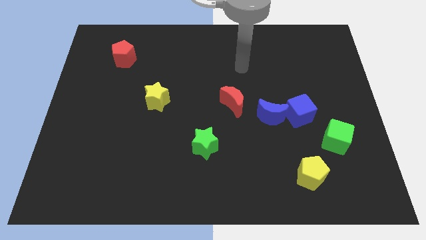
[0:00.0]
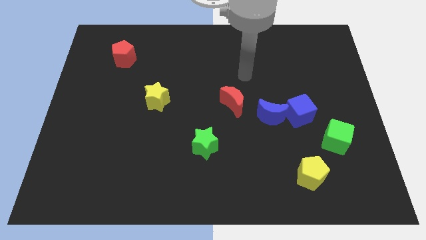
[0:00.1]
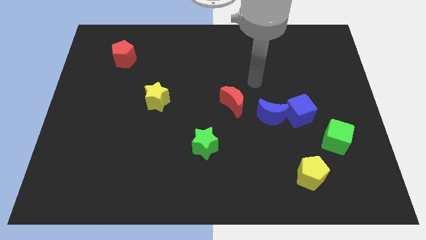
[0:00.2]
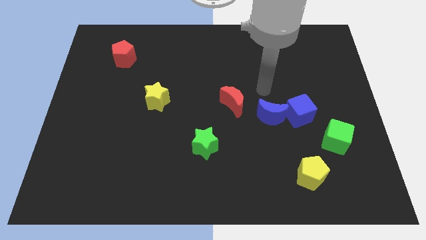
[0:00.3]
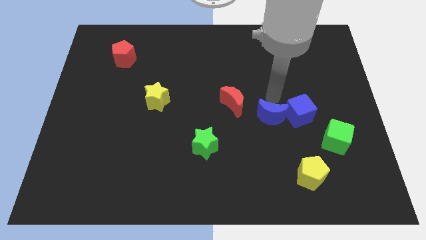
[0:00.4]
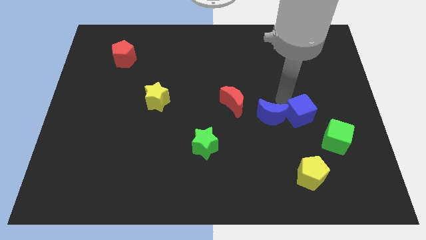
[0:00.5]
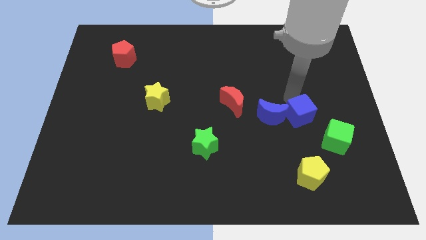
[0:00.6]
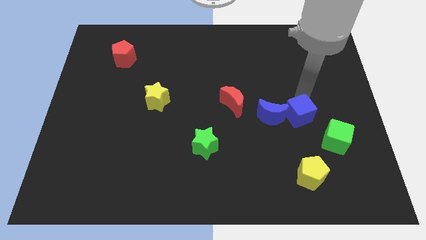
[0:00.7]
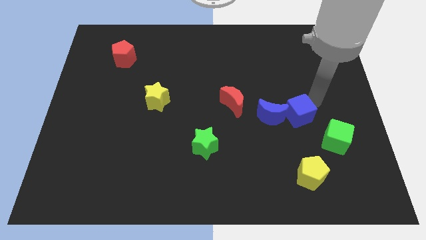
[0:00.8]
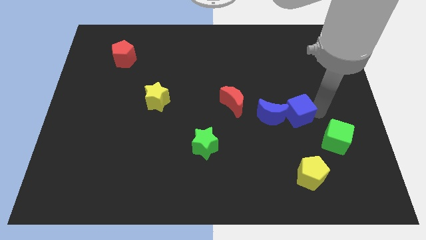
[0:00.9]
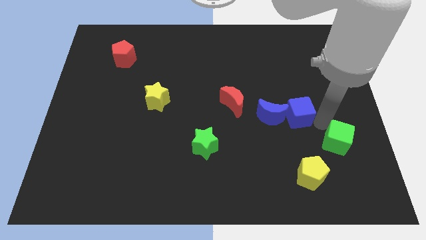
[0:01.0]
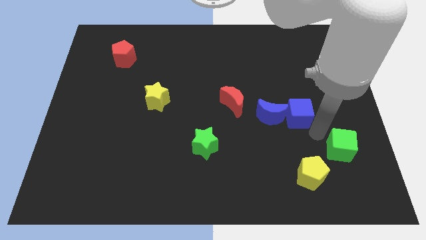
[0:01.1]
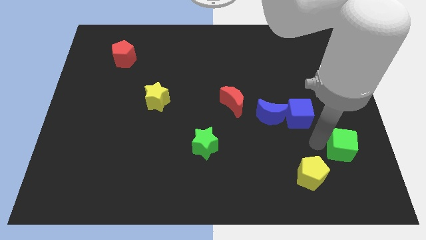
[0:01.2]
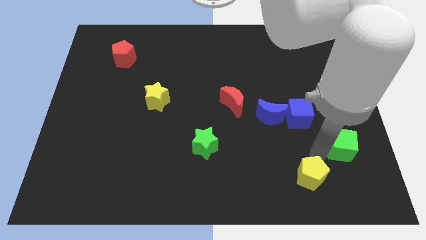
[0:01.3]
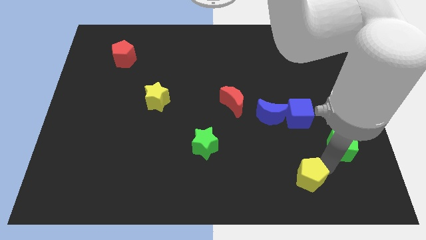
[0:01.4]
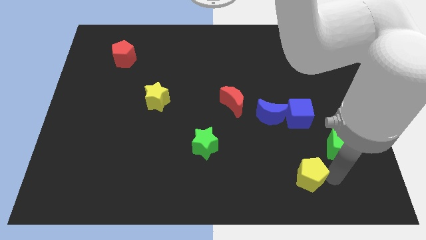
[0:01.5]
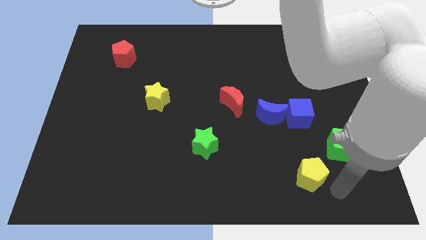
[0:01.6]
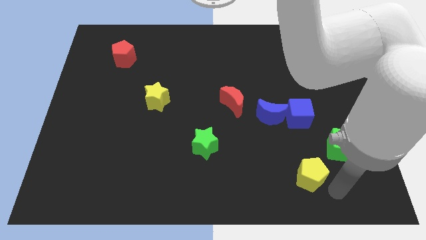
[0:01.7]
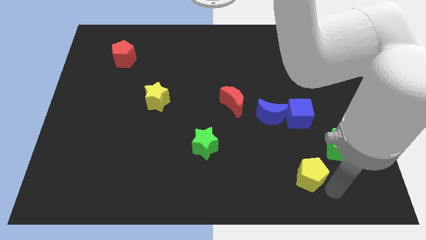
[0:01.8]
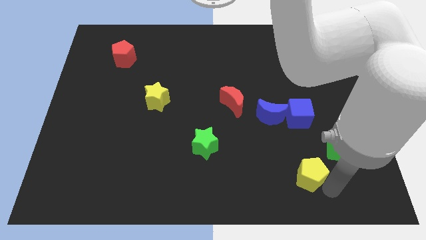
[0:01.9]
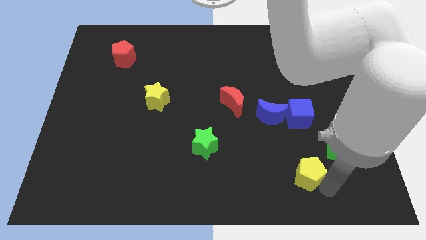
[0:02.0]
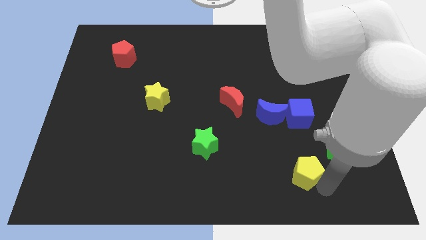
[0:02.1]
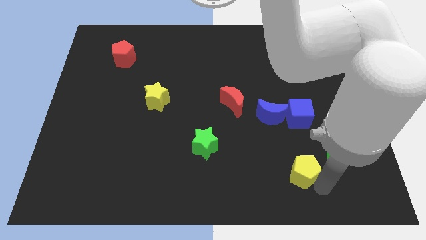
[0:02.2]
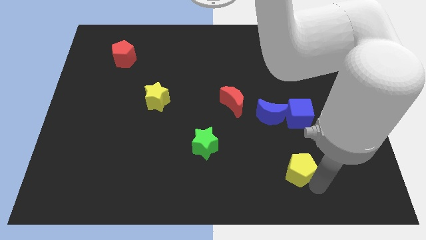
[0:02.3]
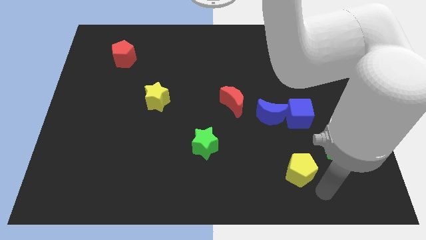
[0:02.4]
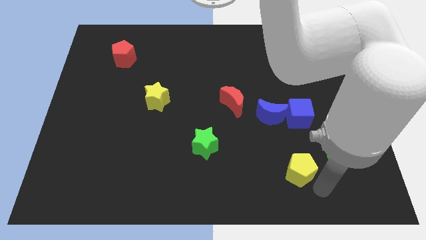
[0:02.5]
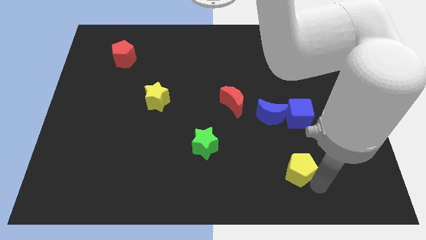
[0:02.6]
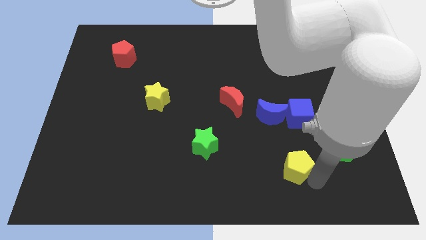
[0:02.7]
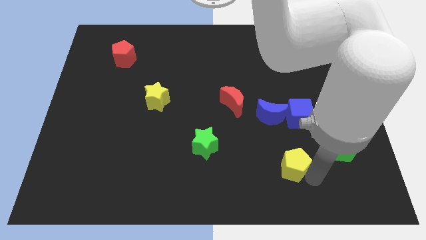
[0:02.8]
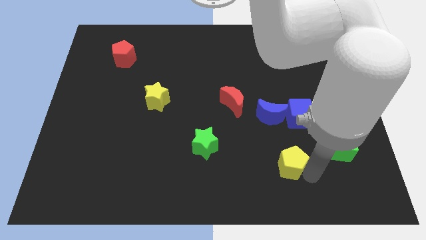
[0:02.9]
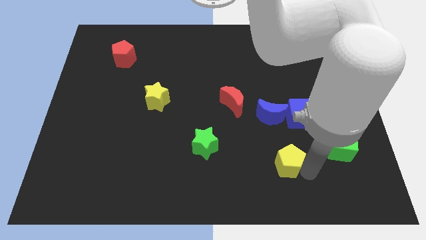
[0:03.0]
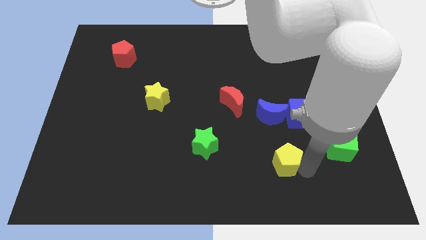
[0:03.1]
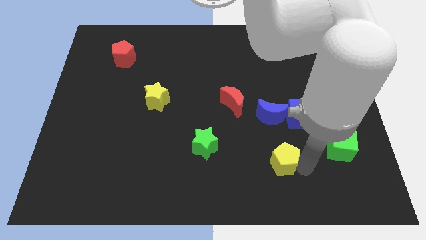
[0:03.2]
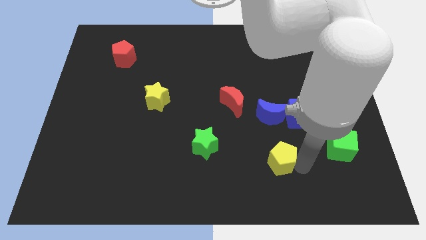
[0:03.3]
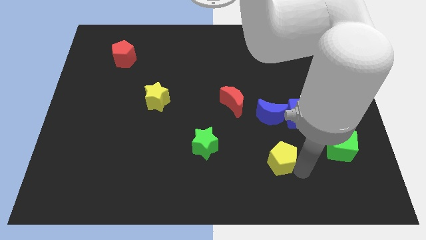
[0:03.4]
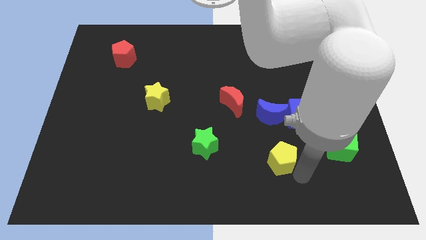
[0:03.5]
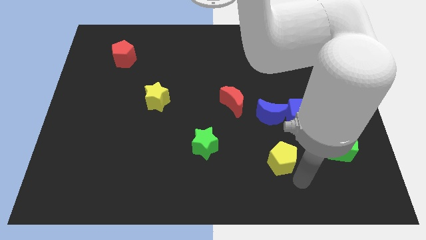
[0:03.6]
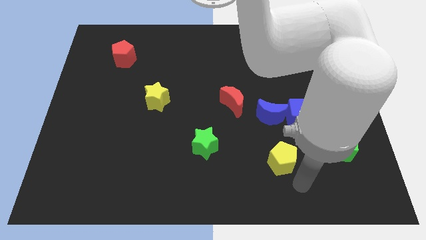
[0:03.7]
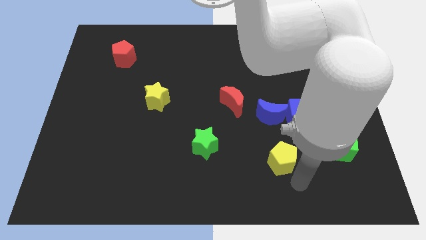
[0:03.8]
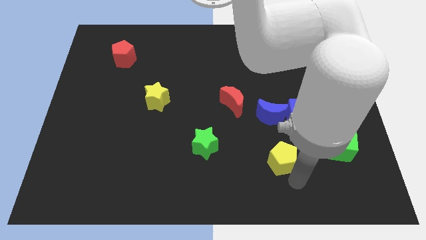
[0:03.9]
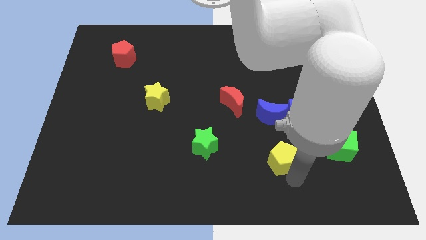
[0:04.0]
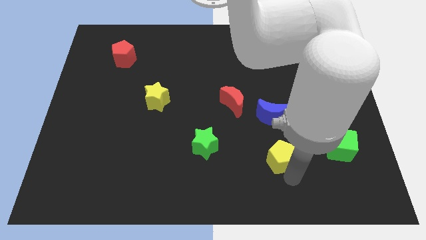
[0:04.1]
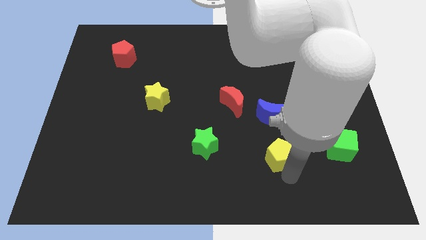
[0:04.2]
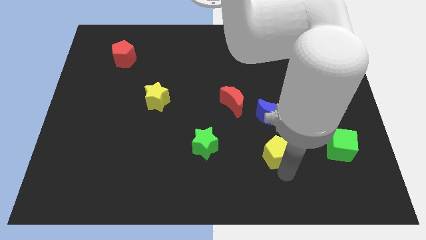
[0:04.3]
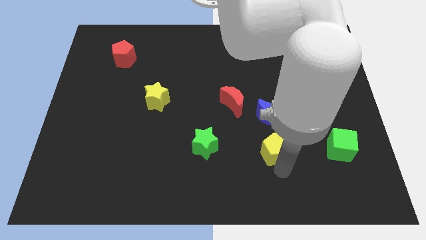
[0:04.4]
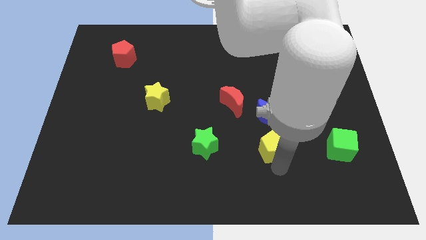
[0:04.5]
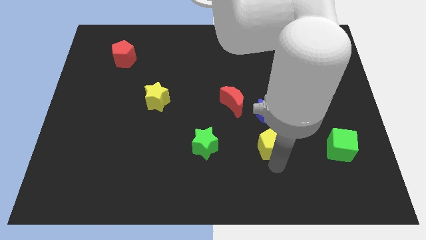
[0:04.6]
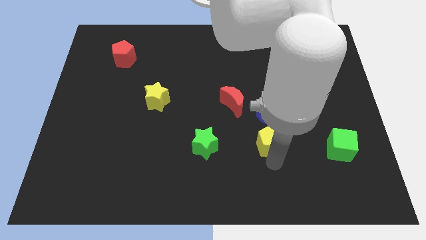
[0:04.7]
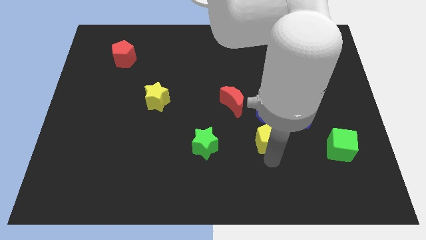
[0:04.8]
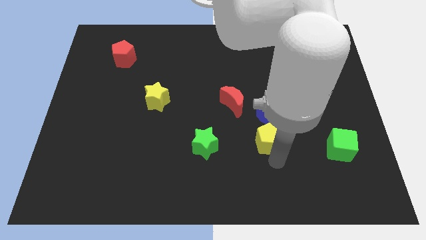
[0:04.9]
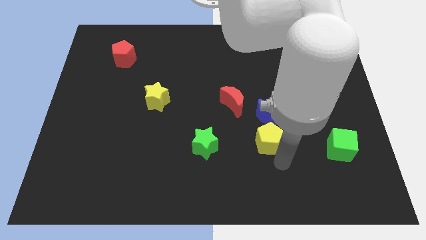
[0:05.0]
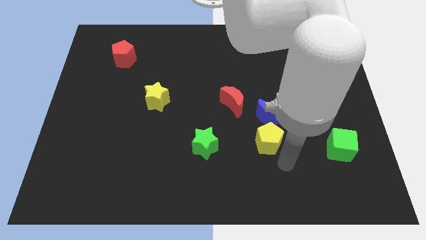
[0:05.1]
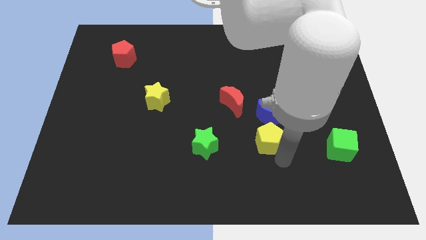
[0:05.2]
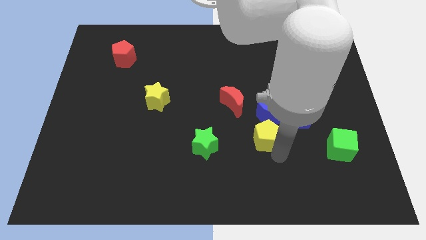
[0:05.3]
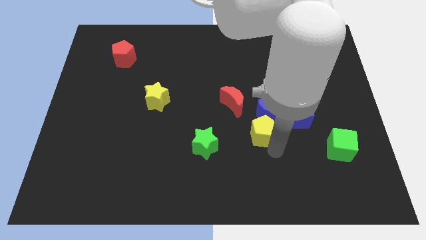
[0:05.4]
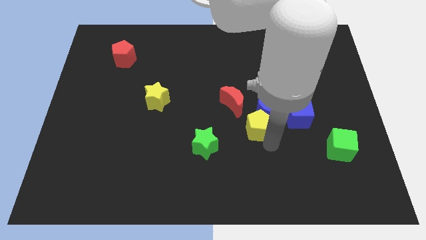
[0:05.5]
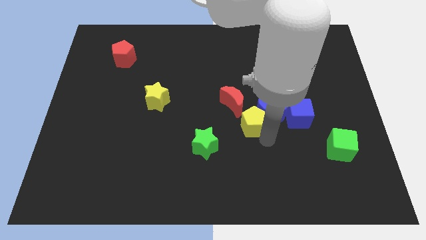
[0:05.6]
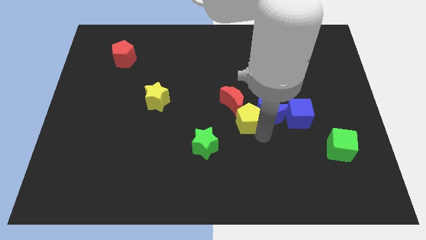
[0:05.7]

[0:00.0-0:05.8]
push the yellow pentagon to the red moon

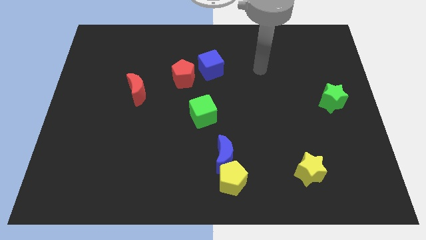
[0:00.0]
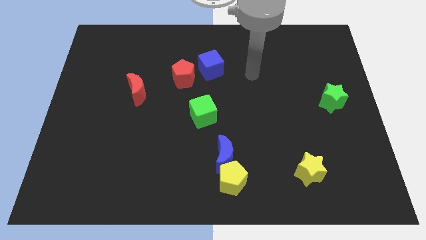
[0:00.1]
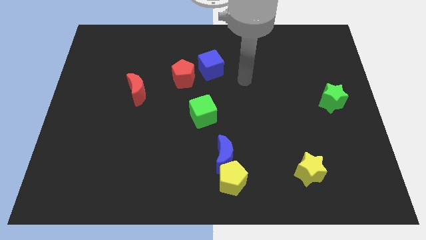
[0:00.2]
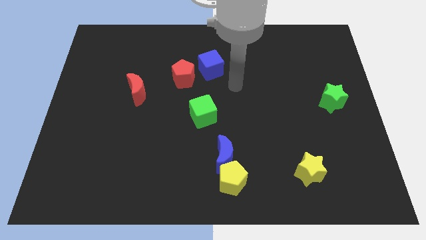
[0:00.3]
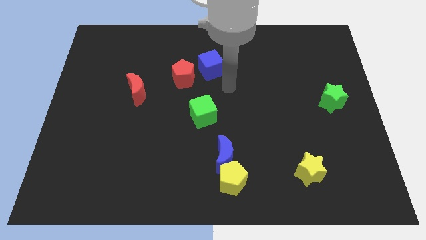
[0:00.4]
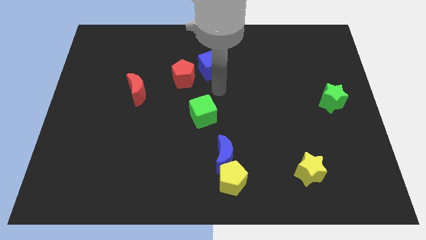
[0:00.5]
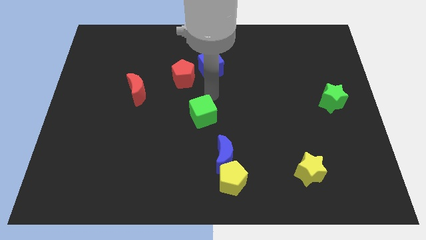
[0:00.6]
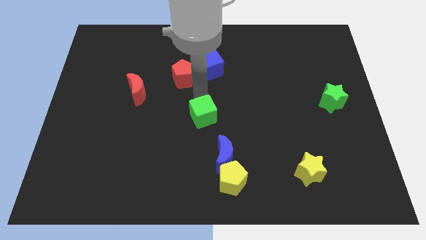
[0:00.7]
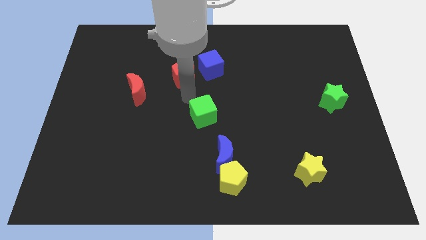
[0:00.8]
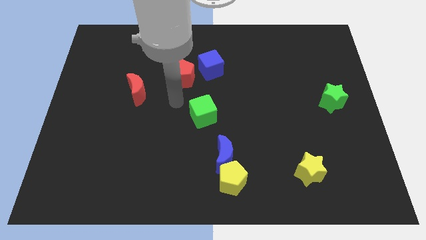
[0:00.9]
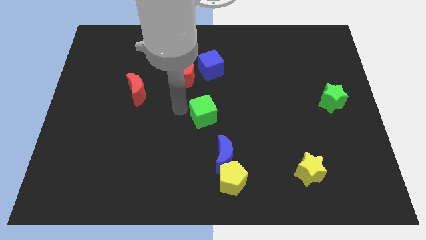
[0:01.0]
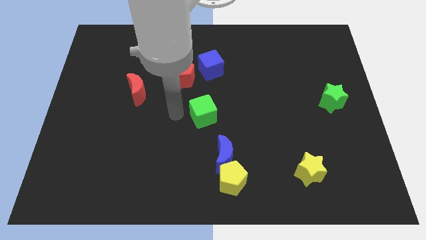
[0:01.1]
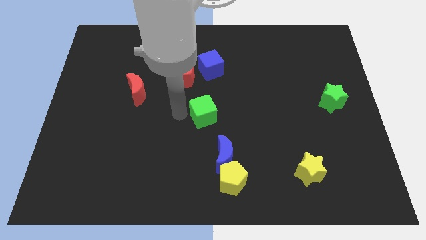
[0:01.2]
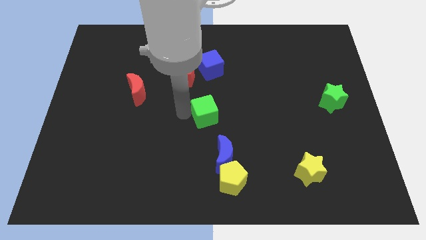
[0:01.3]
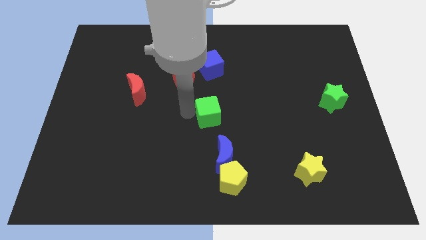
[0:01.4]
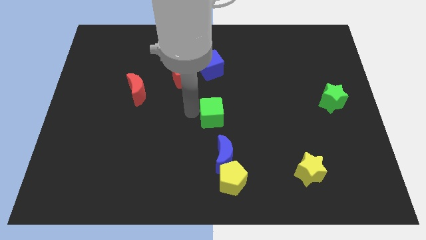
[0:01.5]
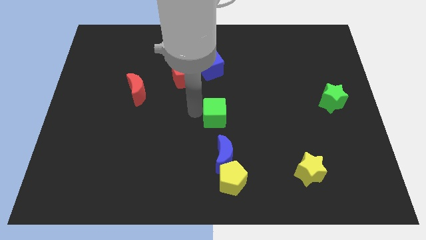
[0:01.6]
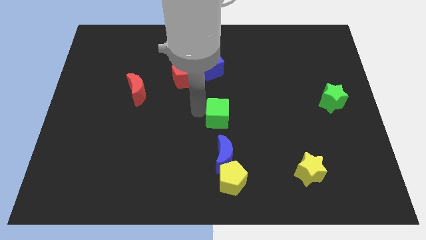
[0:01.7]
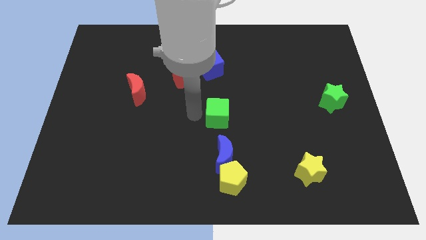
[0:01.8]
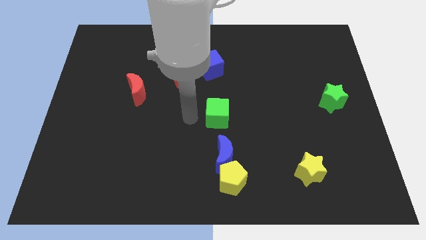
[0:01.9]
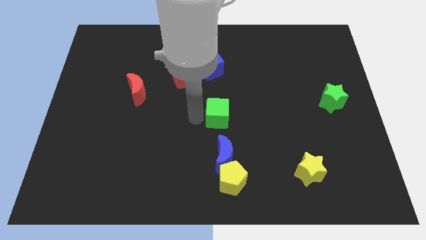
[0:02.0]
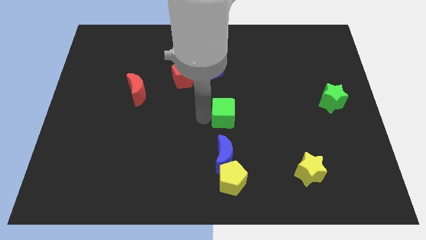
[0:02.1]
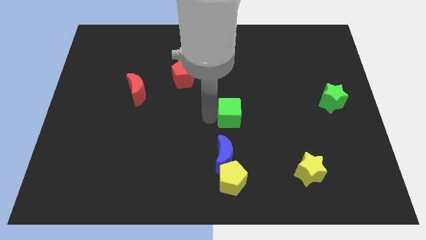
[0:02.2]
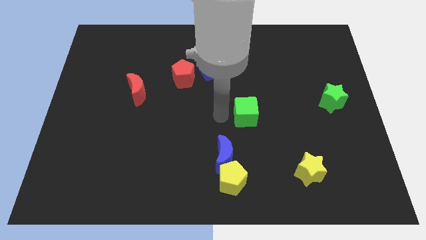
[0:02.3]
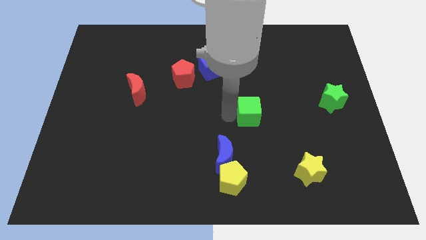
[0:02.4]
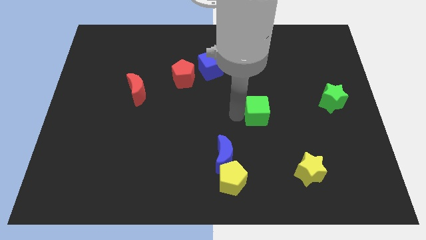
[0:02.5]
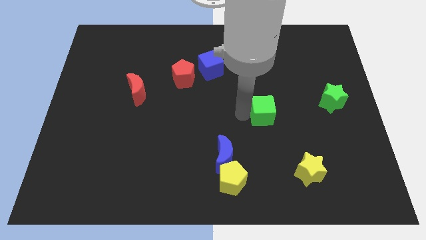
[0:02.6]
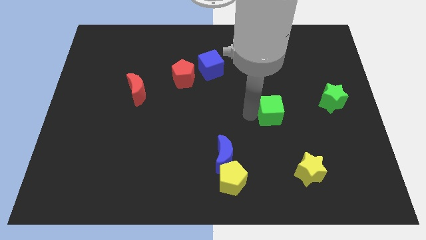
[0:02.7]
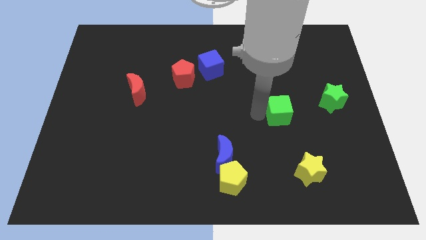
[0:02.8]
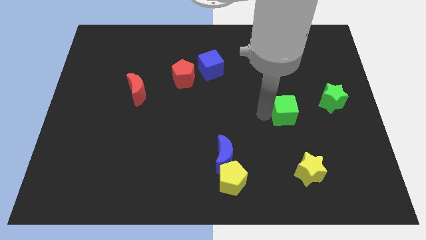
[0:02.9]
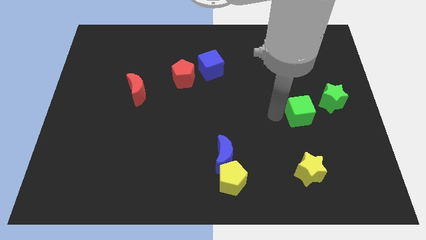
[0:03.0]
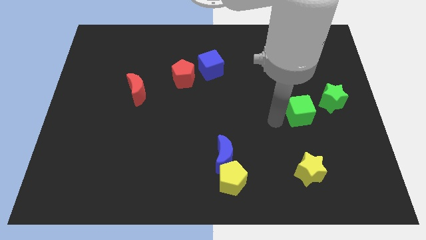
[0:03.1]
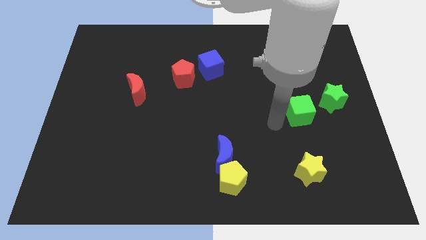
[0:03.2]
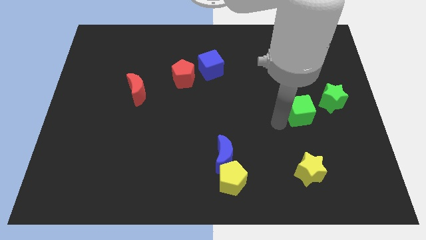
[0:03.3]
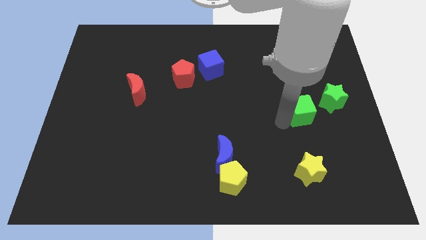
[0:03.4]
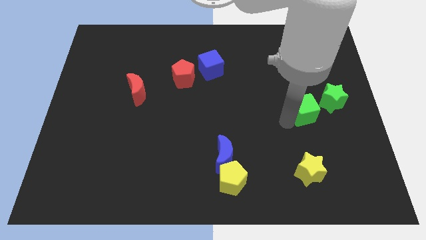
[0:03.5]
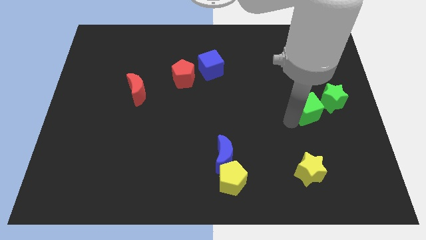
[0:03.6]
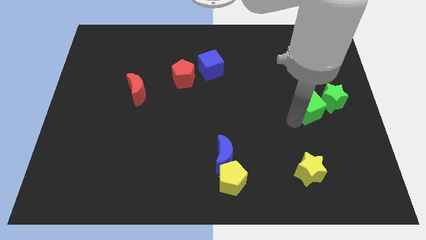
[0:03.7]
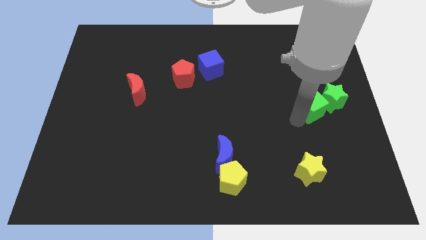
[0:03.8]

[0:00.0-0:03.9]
push the green cube close to the green star
